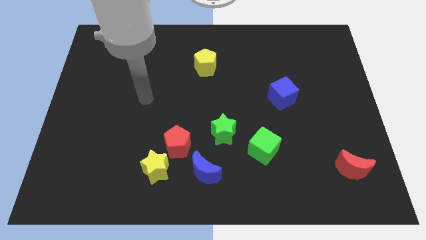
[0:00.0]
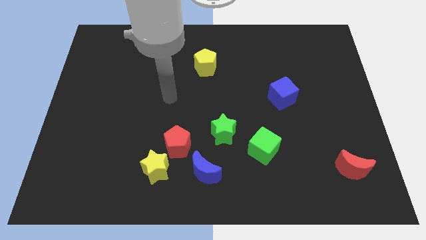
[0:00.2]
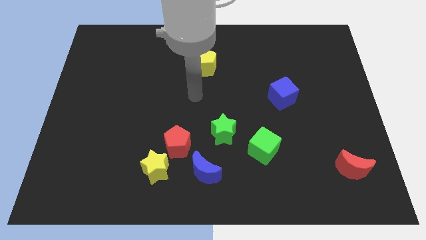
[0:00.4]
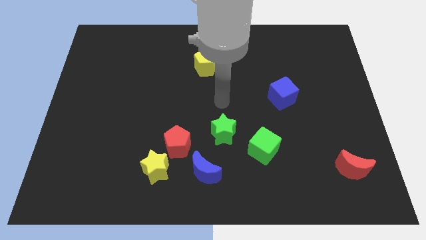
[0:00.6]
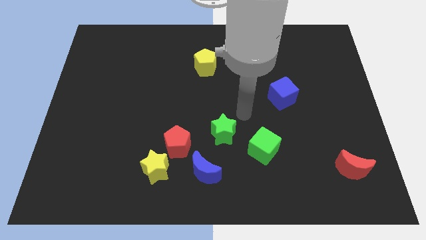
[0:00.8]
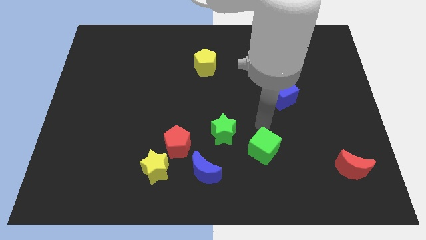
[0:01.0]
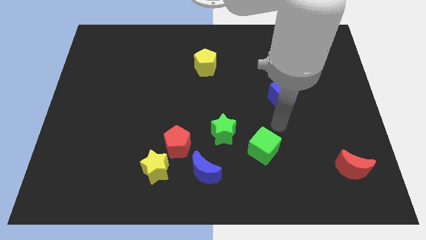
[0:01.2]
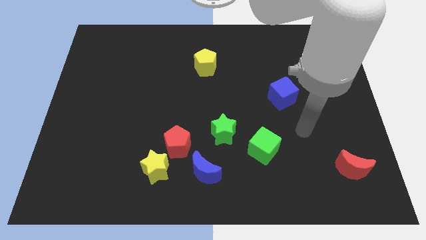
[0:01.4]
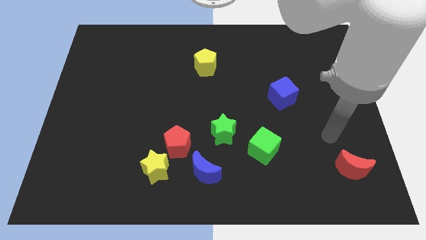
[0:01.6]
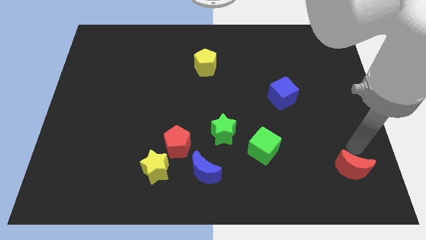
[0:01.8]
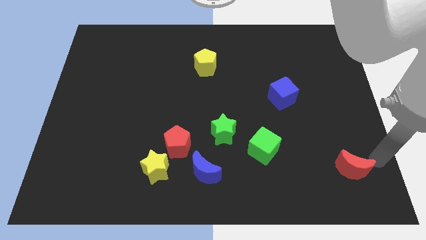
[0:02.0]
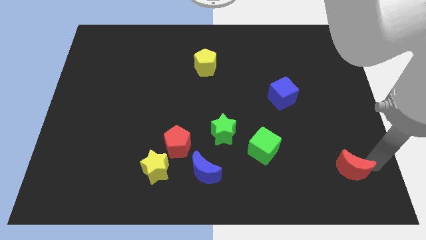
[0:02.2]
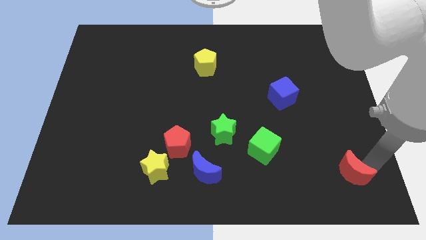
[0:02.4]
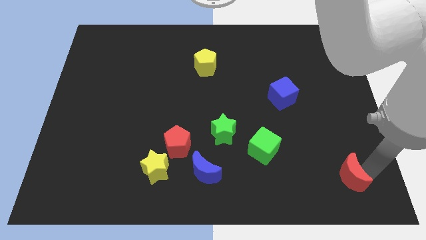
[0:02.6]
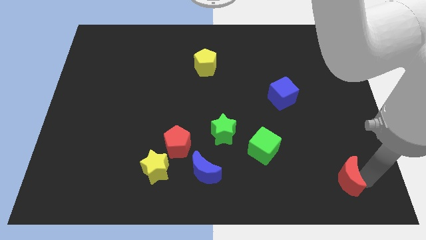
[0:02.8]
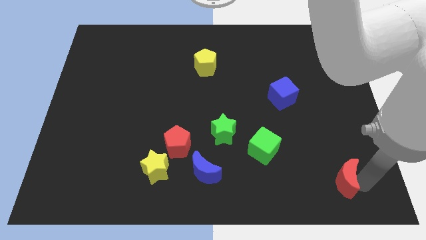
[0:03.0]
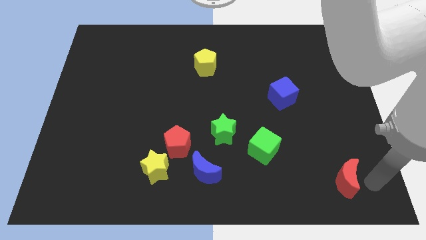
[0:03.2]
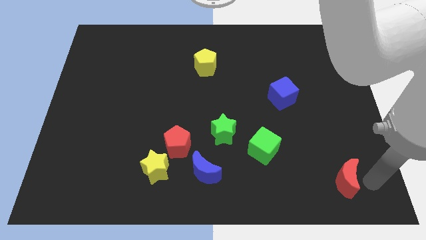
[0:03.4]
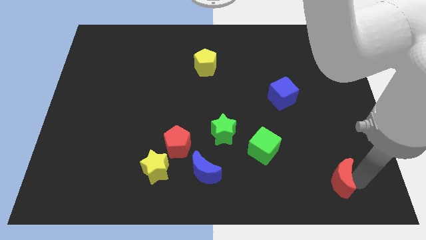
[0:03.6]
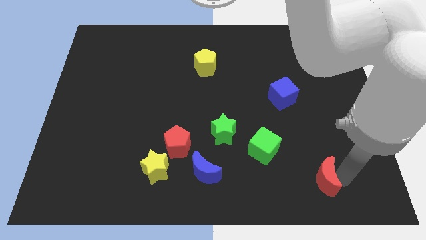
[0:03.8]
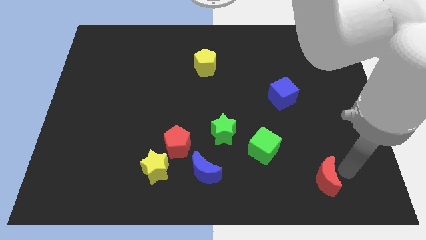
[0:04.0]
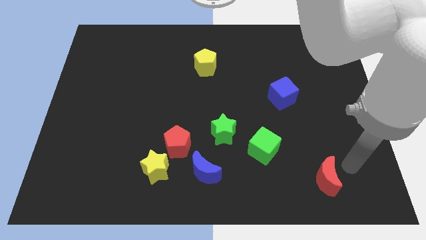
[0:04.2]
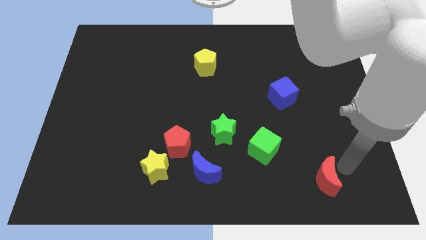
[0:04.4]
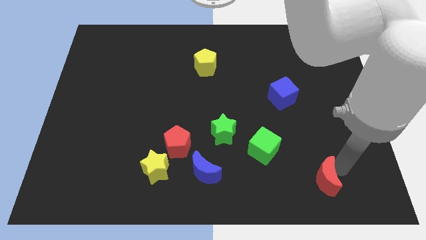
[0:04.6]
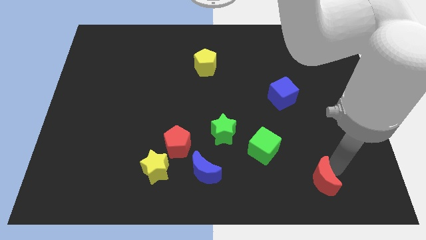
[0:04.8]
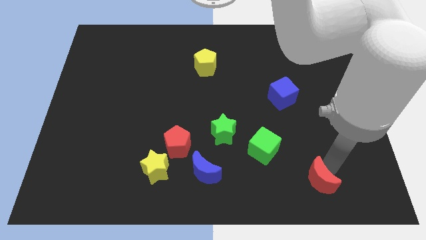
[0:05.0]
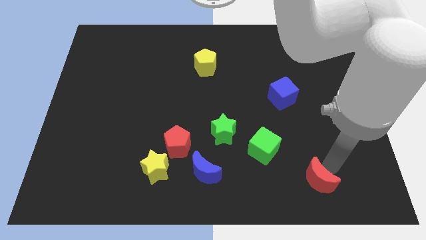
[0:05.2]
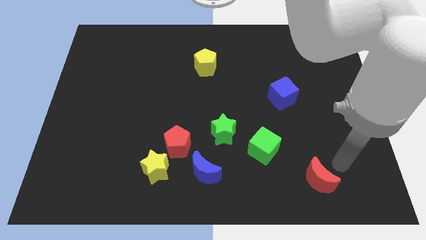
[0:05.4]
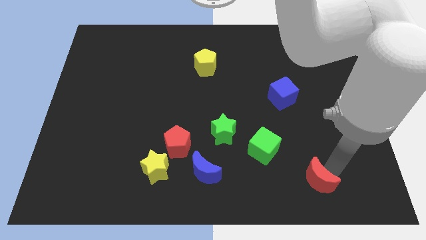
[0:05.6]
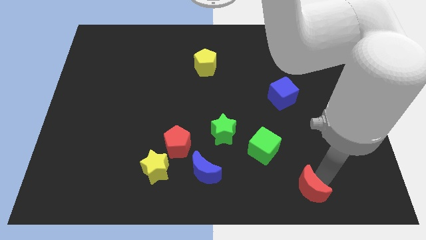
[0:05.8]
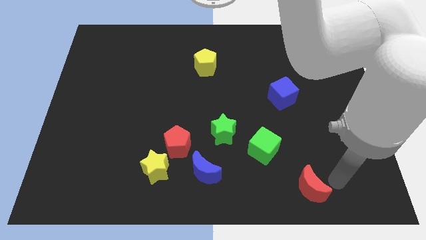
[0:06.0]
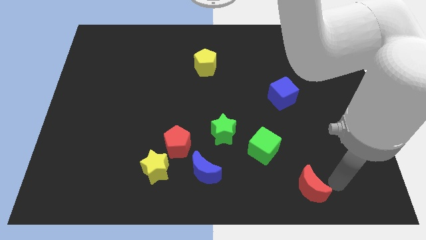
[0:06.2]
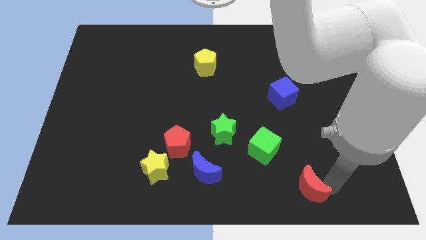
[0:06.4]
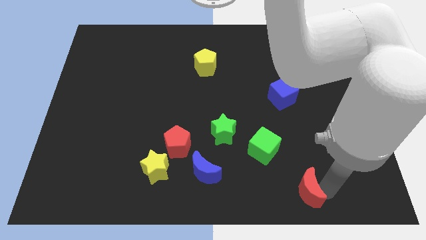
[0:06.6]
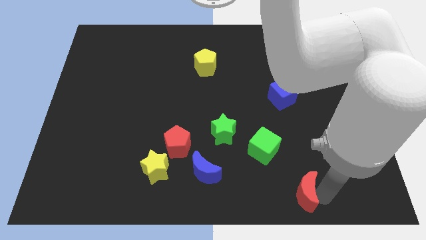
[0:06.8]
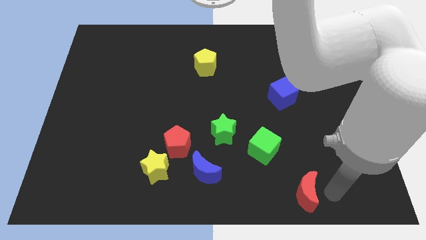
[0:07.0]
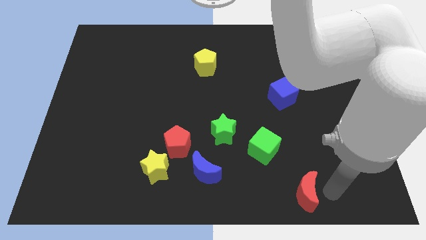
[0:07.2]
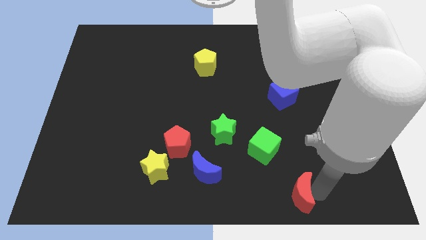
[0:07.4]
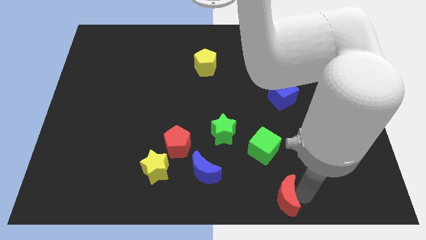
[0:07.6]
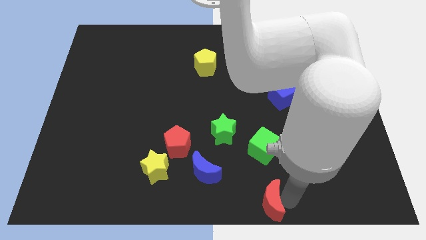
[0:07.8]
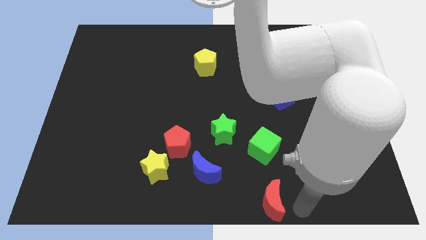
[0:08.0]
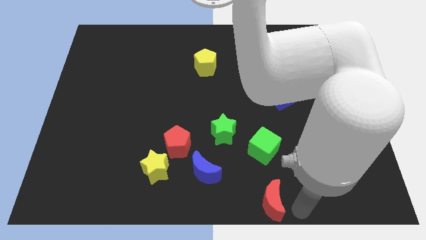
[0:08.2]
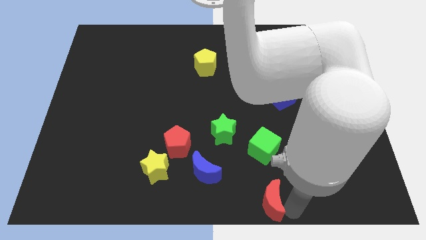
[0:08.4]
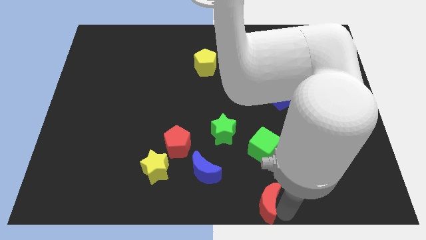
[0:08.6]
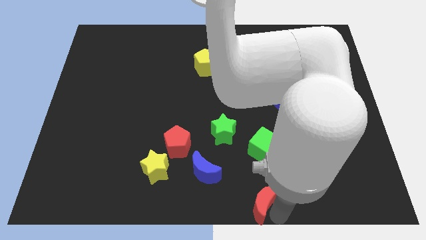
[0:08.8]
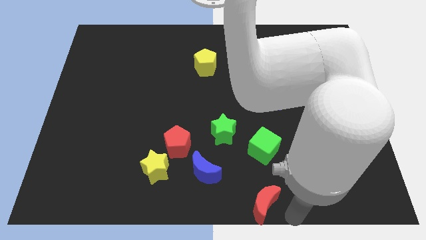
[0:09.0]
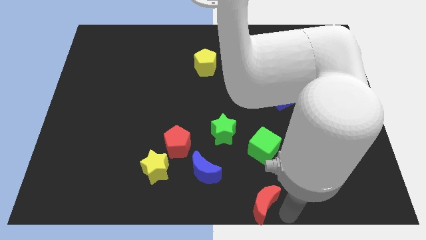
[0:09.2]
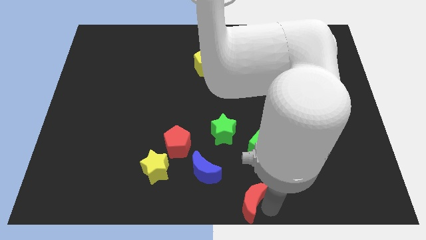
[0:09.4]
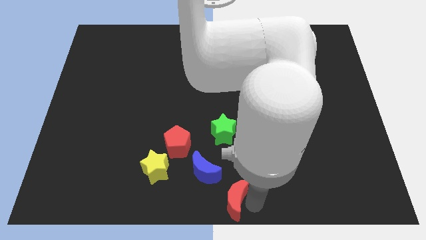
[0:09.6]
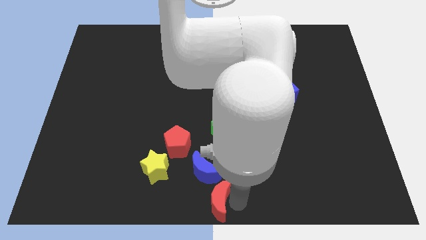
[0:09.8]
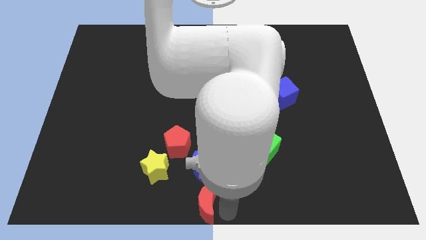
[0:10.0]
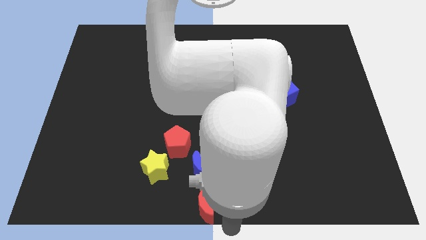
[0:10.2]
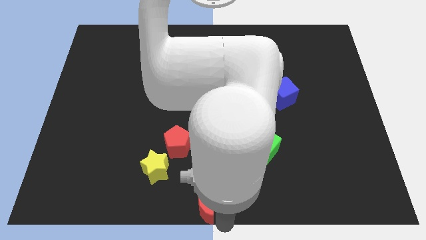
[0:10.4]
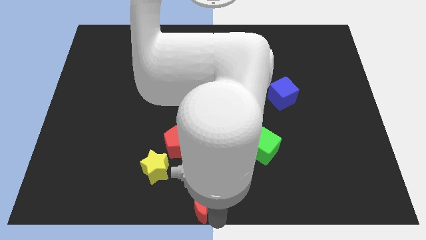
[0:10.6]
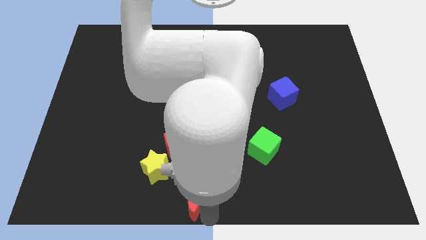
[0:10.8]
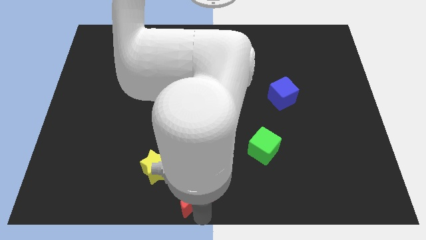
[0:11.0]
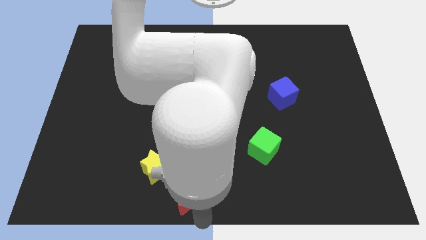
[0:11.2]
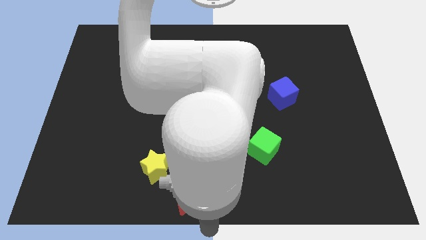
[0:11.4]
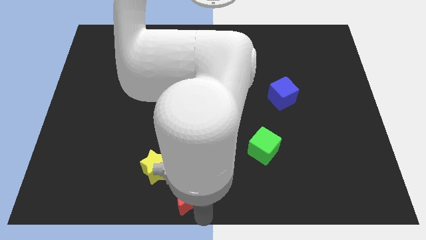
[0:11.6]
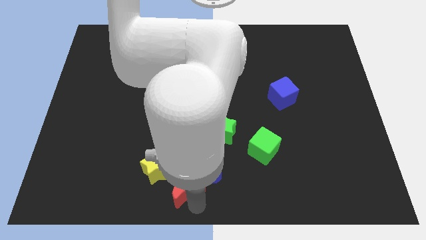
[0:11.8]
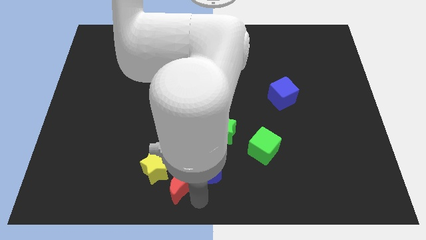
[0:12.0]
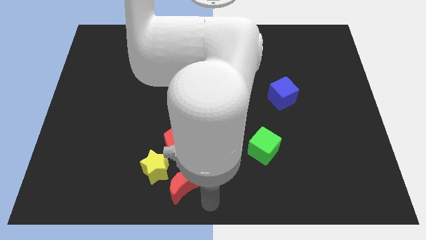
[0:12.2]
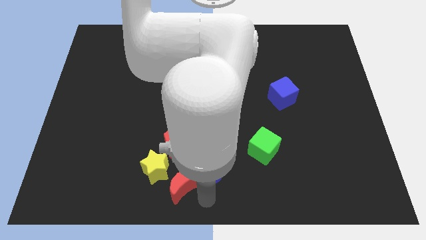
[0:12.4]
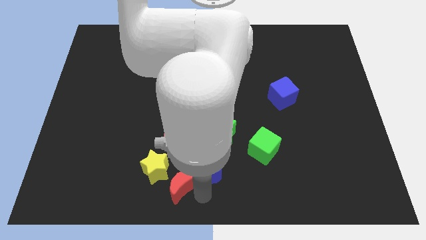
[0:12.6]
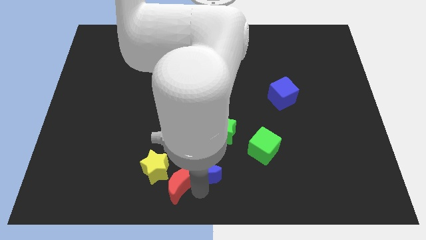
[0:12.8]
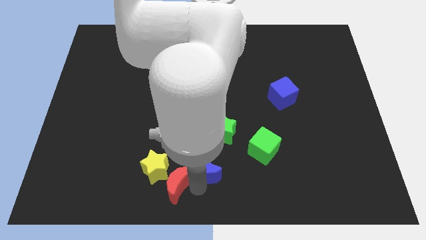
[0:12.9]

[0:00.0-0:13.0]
push the red moon close to the yellow star
